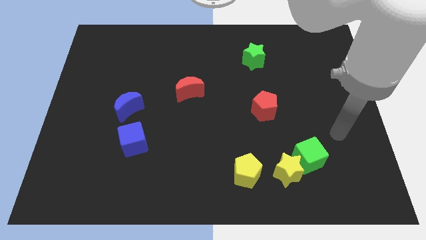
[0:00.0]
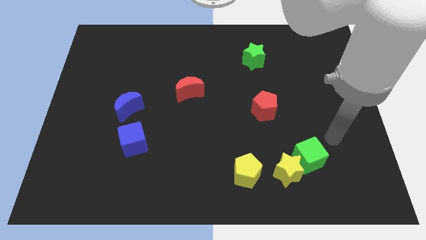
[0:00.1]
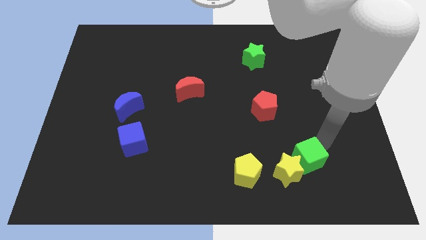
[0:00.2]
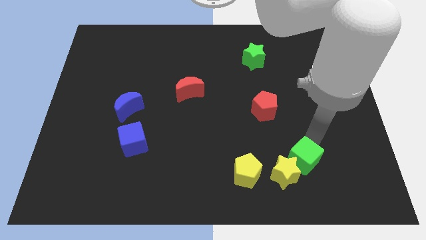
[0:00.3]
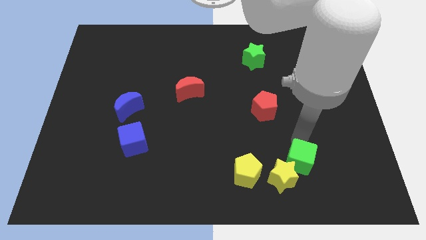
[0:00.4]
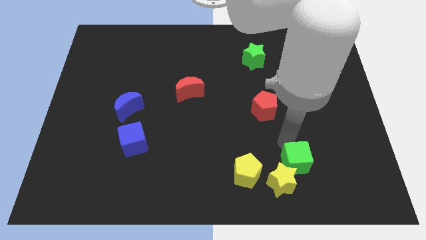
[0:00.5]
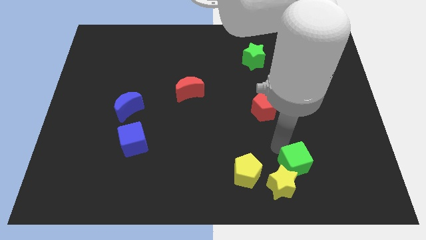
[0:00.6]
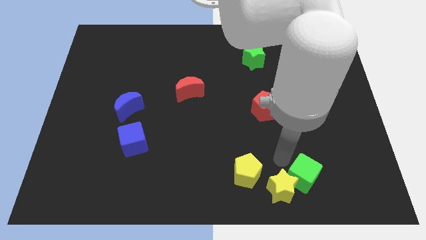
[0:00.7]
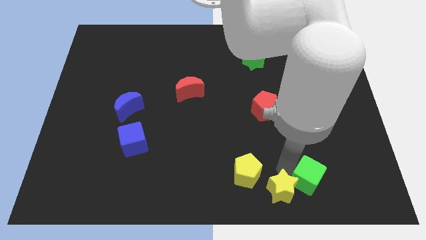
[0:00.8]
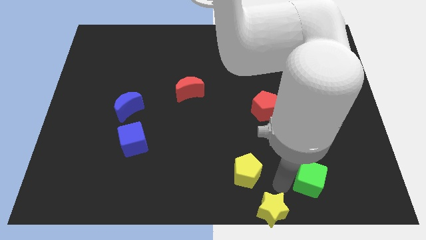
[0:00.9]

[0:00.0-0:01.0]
separate the green cube from the yellow star

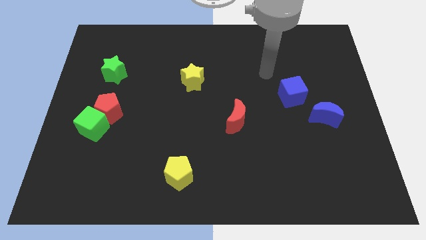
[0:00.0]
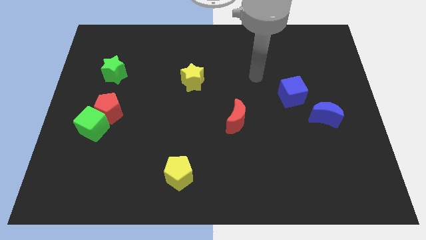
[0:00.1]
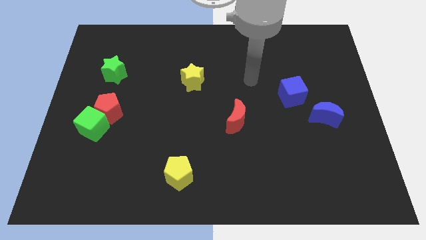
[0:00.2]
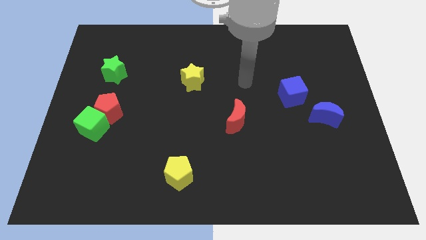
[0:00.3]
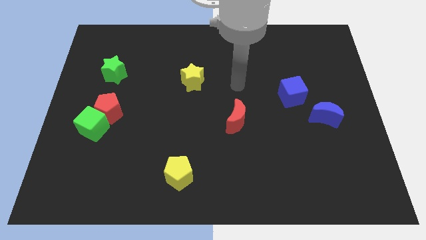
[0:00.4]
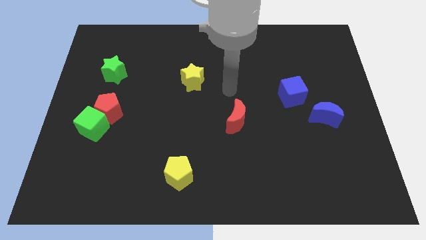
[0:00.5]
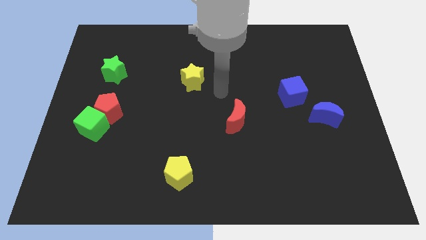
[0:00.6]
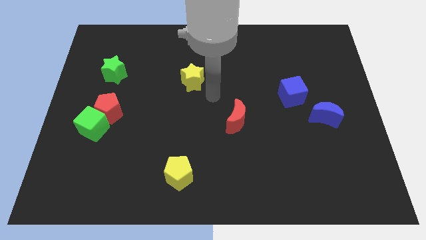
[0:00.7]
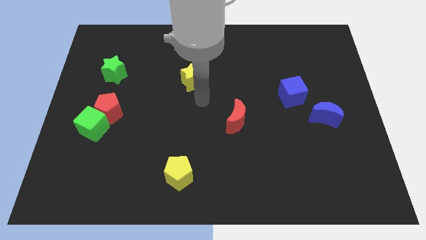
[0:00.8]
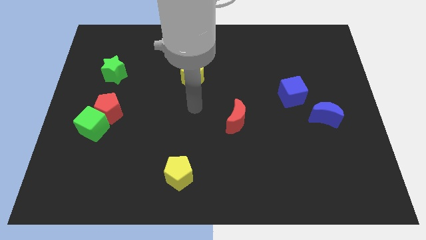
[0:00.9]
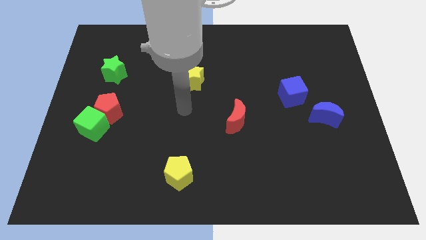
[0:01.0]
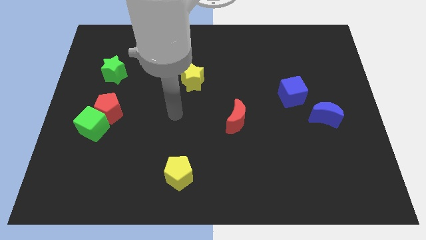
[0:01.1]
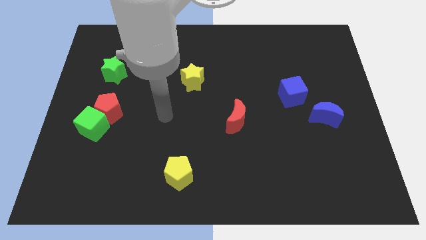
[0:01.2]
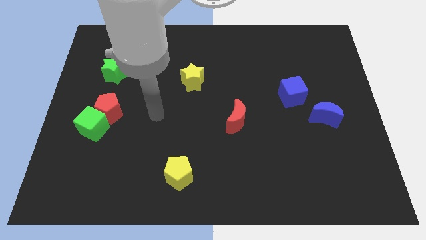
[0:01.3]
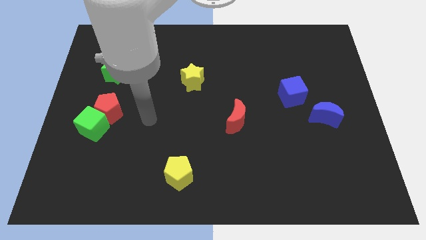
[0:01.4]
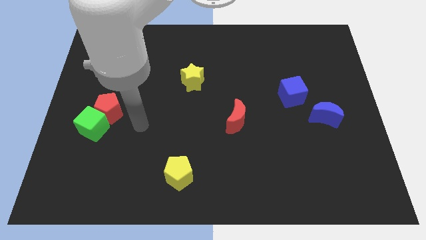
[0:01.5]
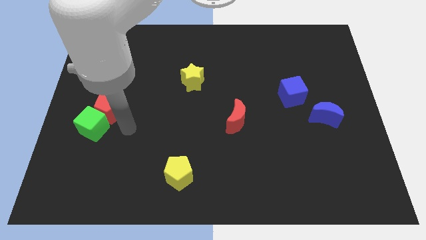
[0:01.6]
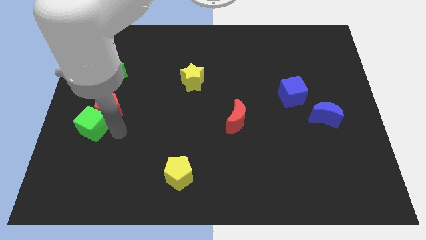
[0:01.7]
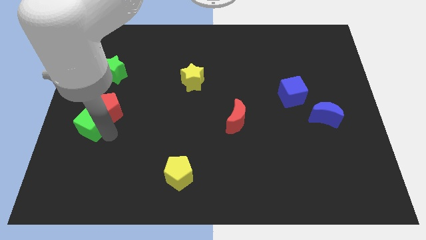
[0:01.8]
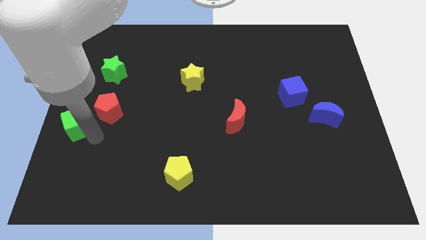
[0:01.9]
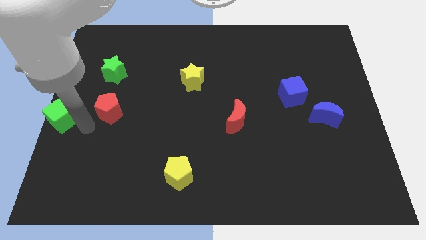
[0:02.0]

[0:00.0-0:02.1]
pull the red pentagon apart from the green cube

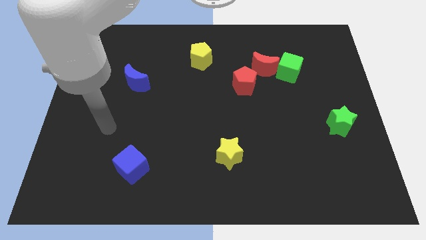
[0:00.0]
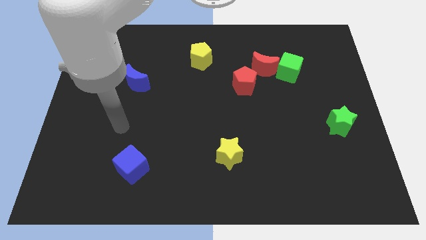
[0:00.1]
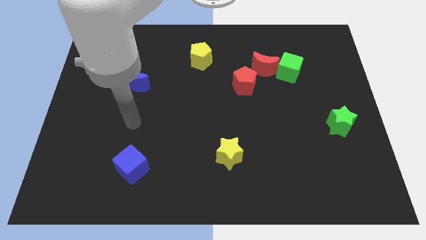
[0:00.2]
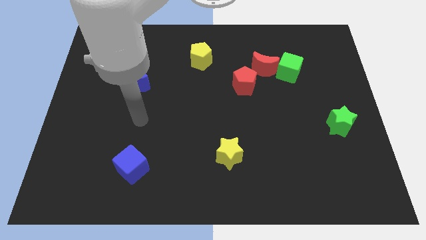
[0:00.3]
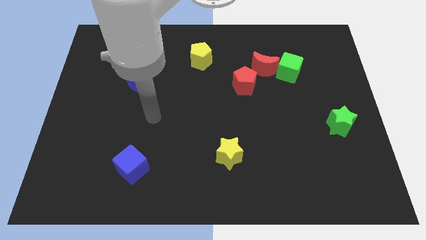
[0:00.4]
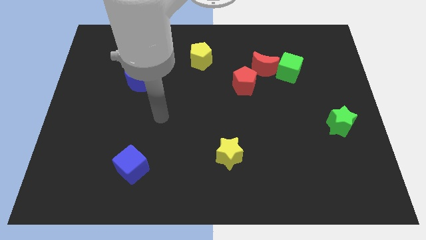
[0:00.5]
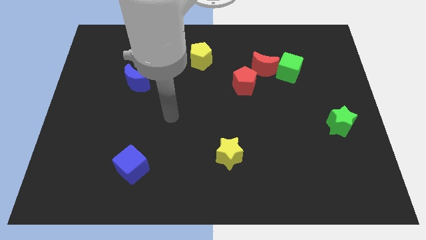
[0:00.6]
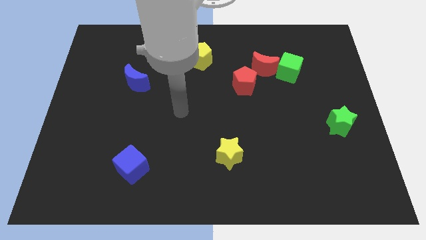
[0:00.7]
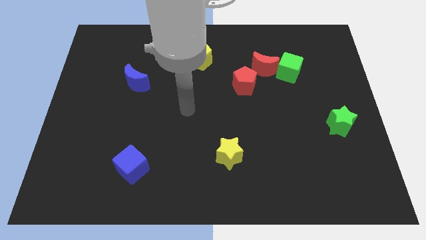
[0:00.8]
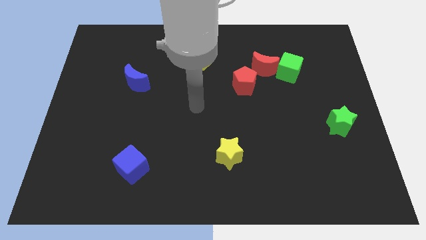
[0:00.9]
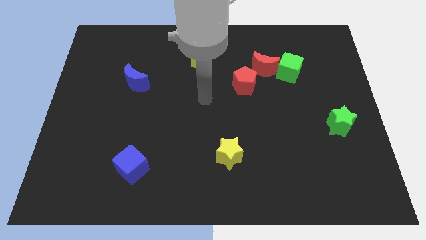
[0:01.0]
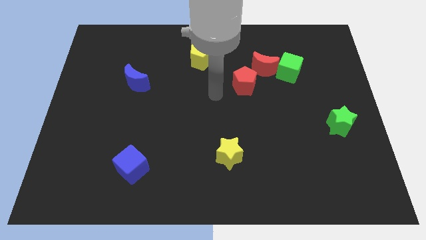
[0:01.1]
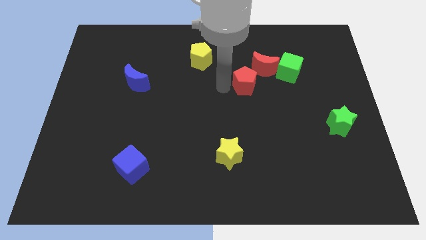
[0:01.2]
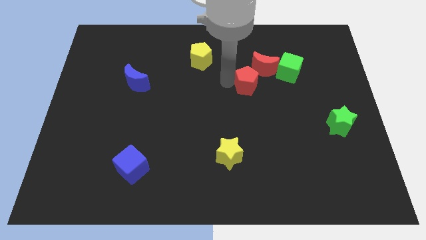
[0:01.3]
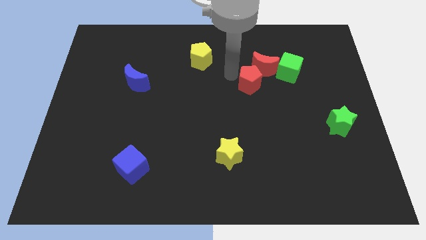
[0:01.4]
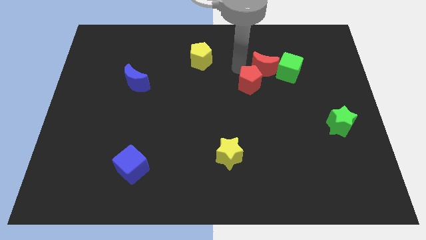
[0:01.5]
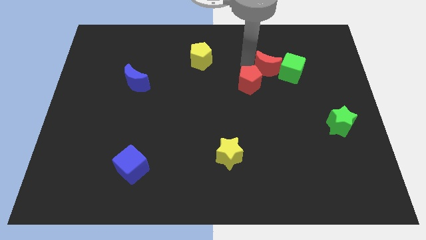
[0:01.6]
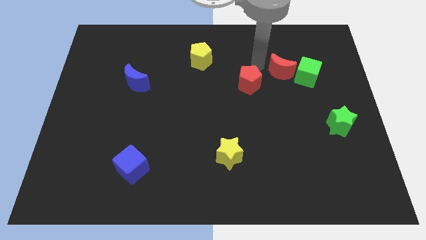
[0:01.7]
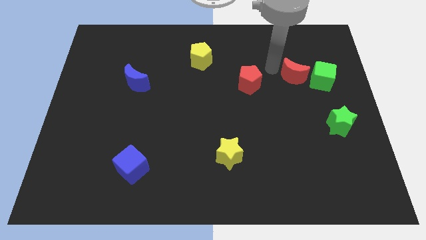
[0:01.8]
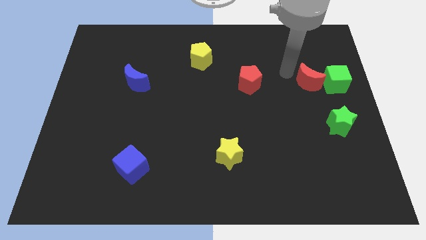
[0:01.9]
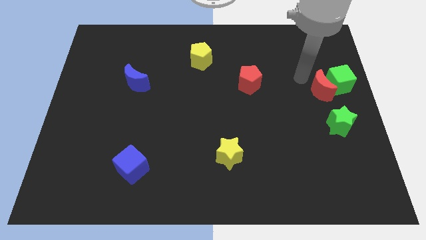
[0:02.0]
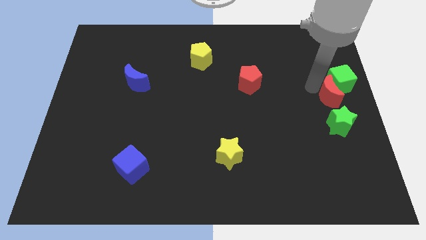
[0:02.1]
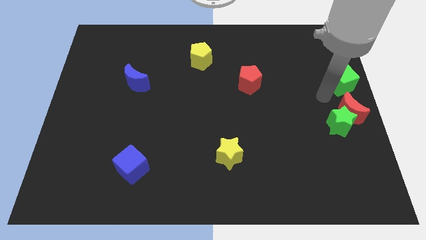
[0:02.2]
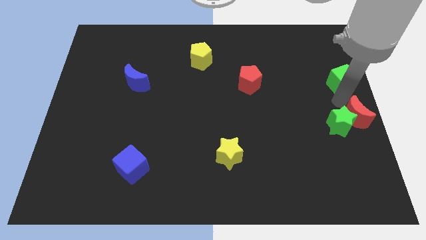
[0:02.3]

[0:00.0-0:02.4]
move the green cube away from the red moon

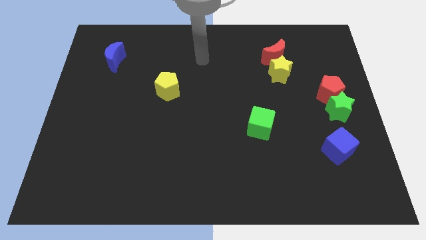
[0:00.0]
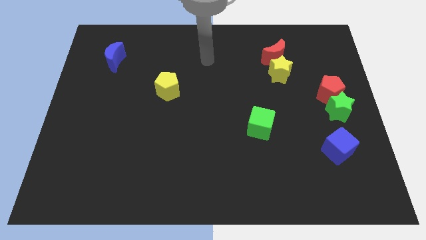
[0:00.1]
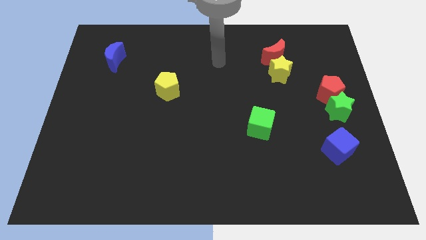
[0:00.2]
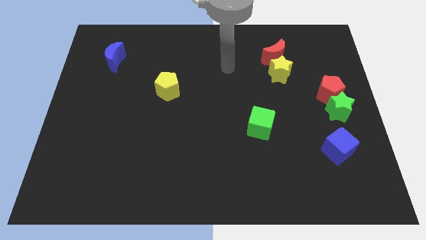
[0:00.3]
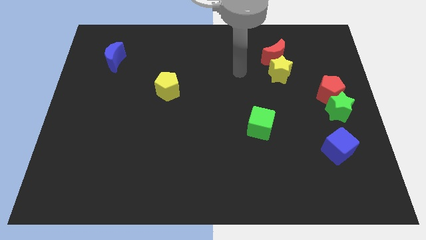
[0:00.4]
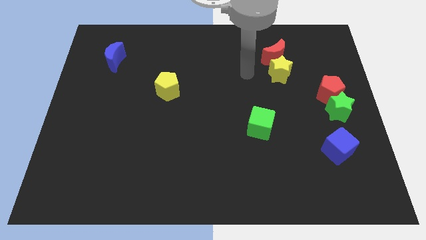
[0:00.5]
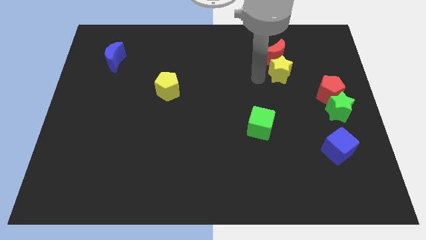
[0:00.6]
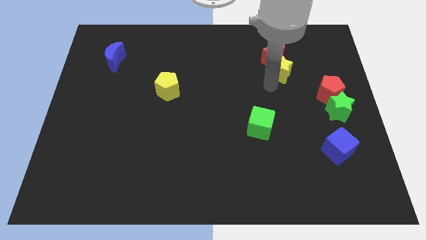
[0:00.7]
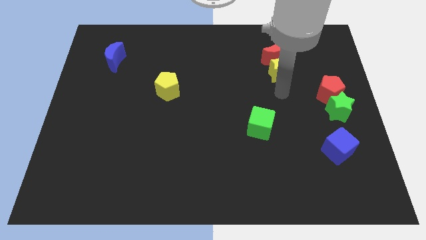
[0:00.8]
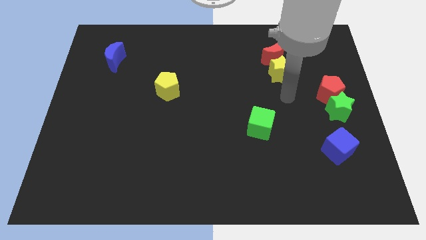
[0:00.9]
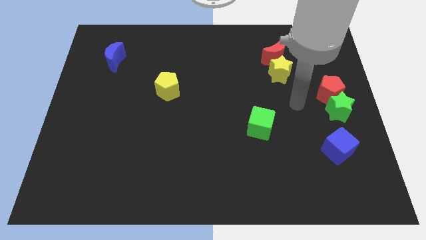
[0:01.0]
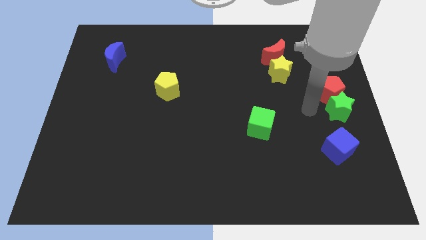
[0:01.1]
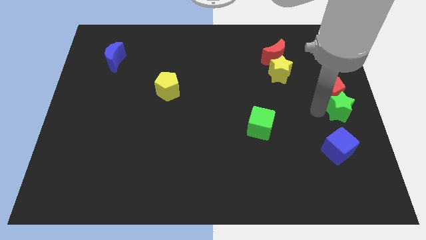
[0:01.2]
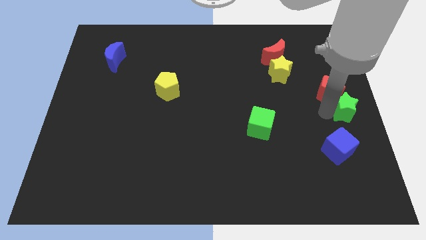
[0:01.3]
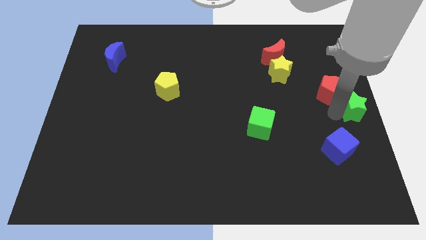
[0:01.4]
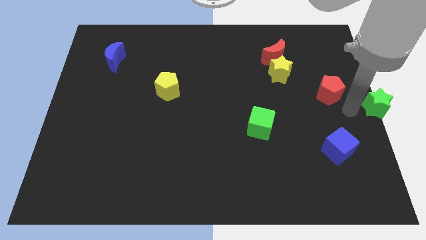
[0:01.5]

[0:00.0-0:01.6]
move the red pentagon away from the green star

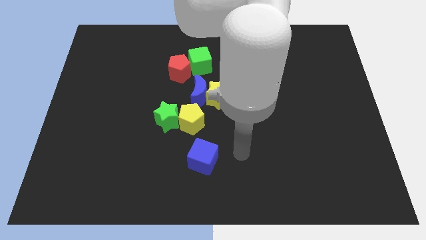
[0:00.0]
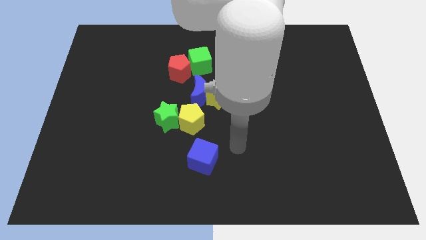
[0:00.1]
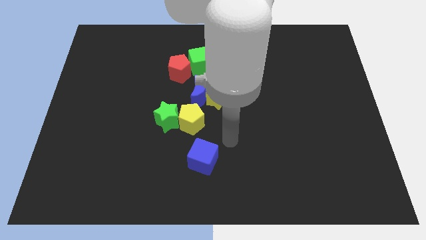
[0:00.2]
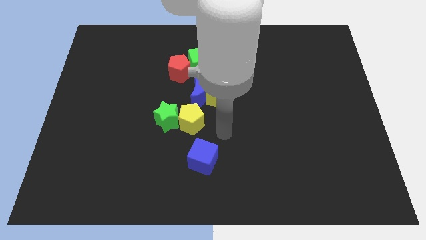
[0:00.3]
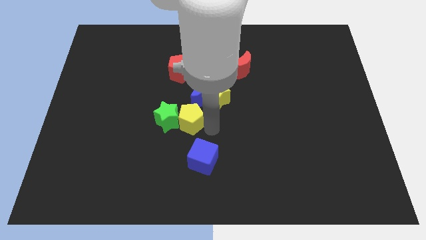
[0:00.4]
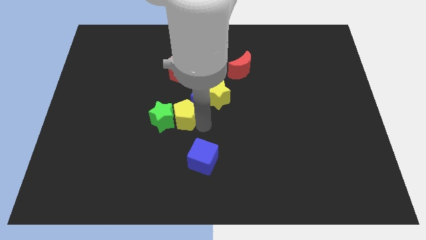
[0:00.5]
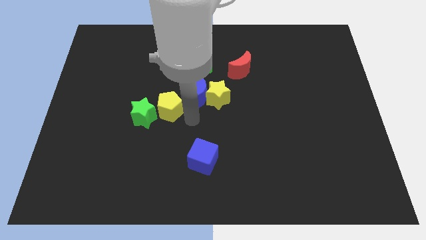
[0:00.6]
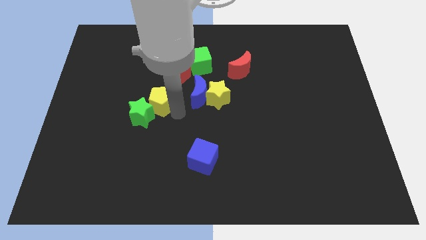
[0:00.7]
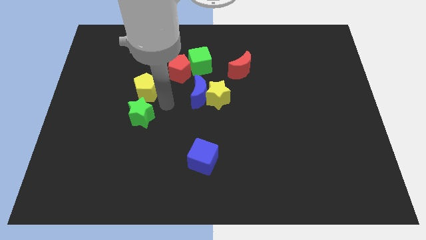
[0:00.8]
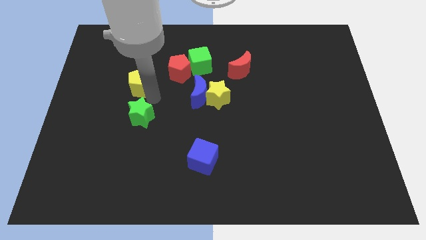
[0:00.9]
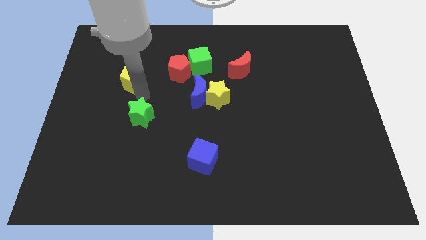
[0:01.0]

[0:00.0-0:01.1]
pull the green star apart from the yellow pentagon

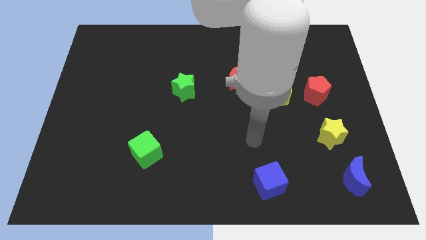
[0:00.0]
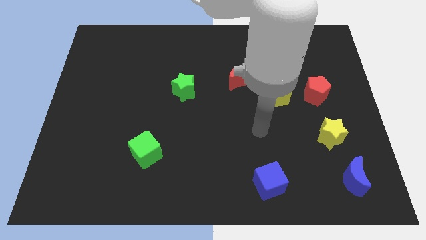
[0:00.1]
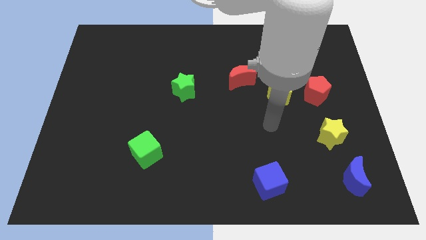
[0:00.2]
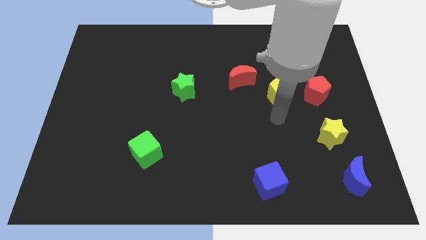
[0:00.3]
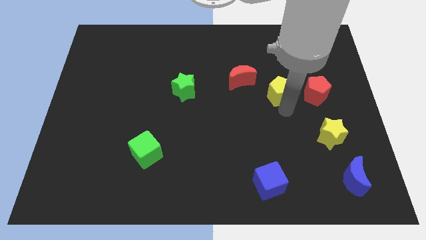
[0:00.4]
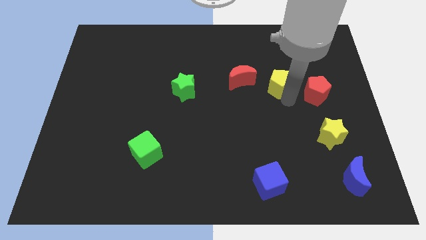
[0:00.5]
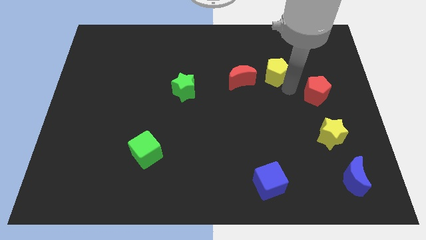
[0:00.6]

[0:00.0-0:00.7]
pull the red pentagon apart from the yellow pentagon

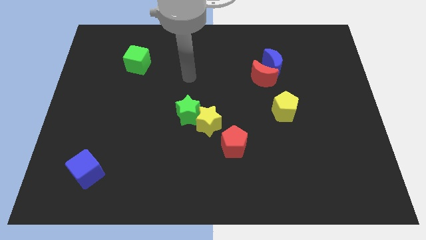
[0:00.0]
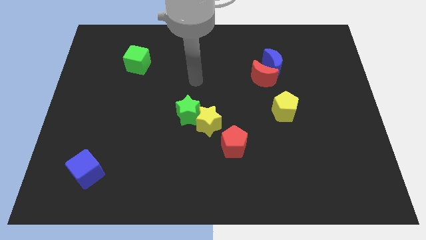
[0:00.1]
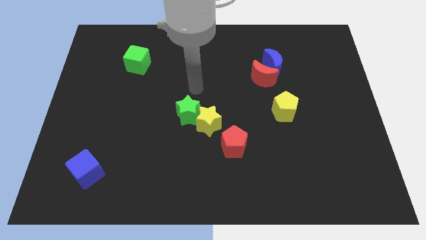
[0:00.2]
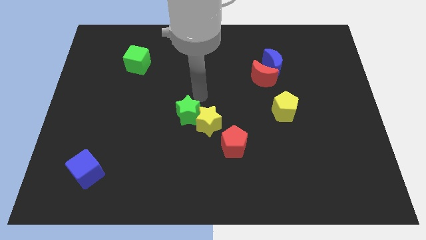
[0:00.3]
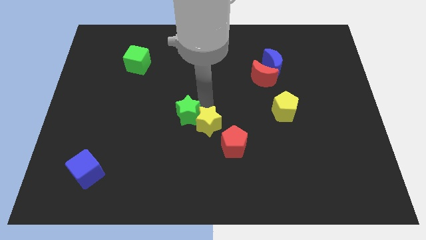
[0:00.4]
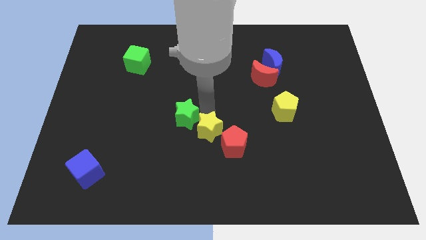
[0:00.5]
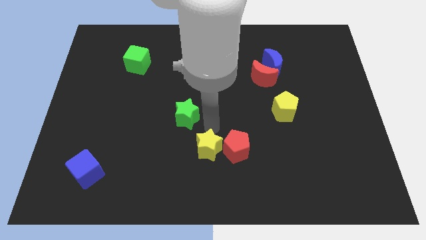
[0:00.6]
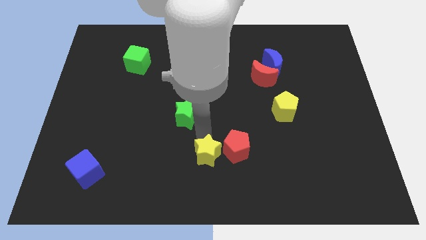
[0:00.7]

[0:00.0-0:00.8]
move the green star away from the yellow star
